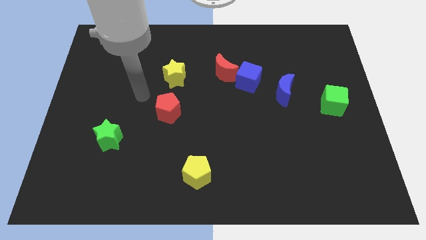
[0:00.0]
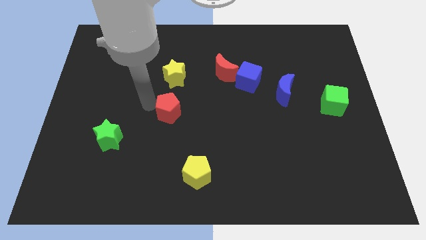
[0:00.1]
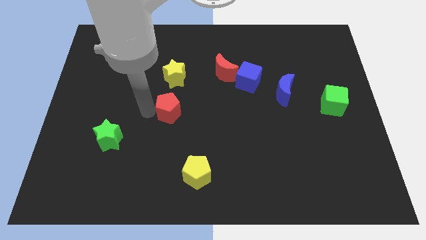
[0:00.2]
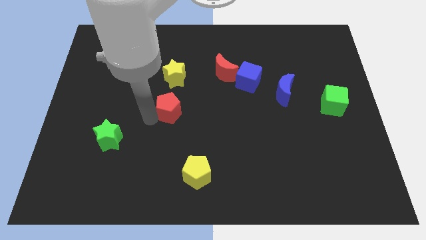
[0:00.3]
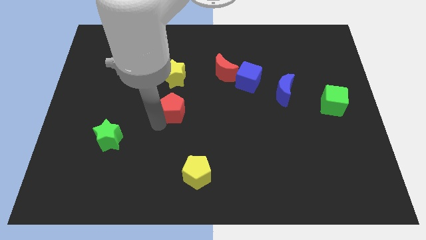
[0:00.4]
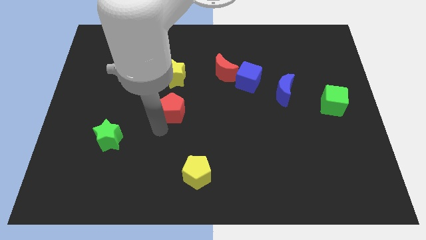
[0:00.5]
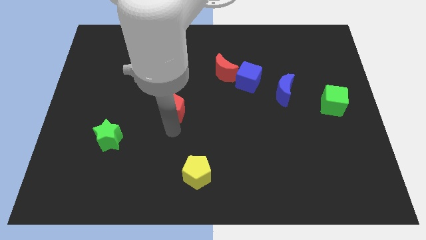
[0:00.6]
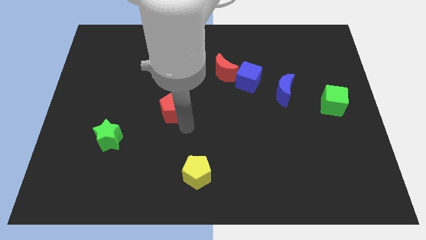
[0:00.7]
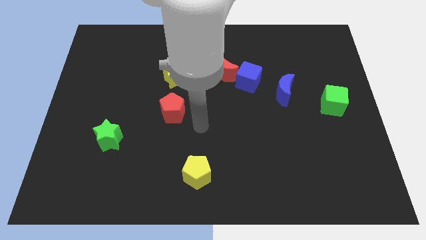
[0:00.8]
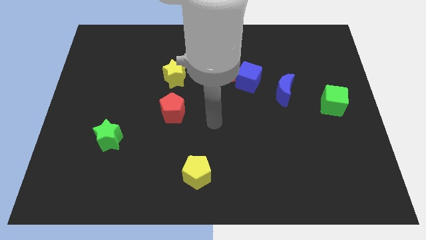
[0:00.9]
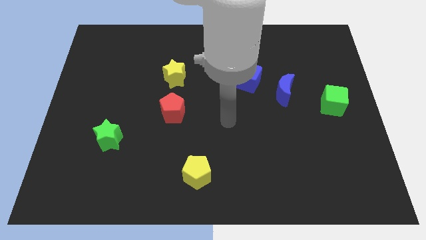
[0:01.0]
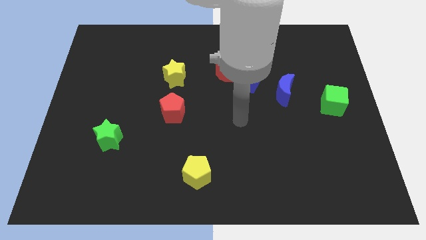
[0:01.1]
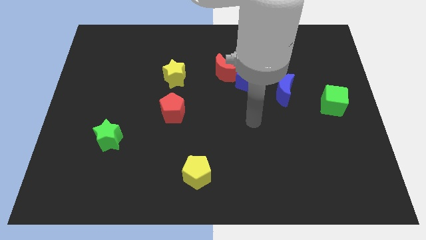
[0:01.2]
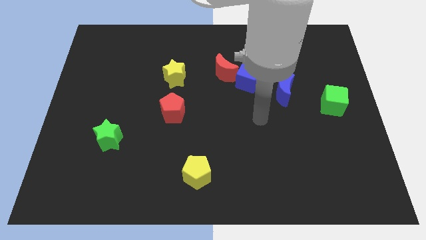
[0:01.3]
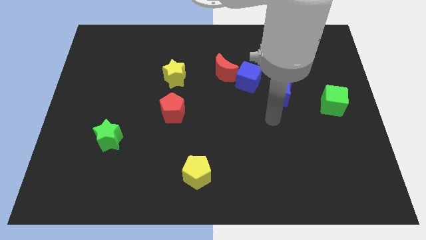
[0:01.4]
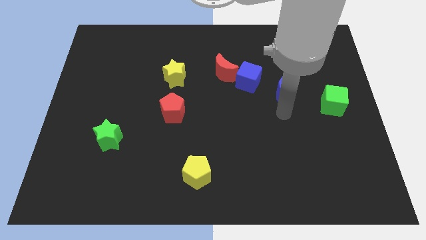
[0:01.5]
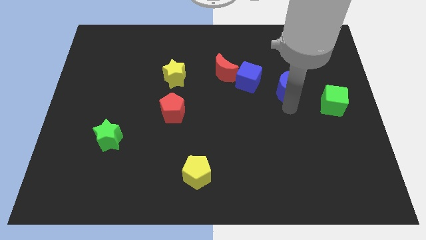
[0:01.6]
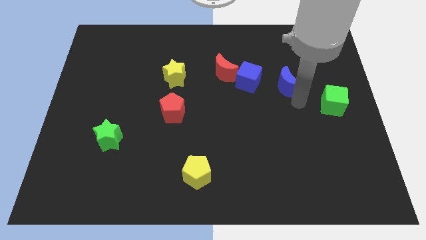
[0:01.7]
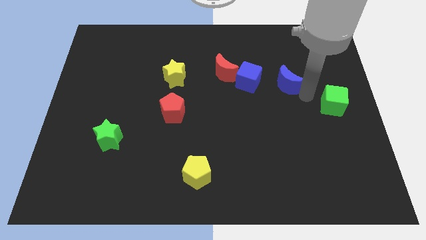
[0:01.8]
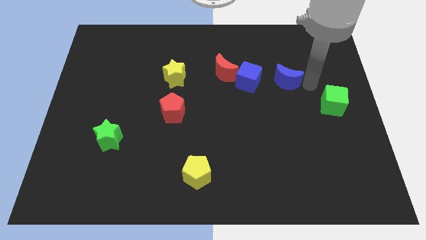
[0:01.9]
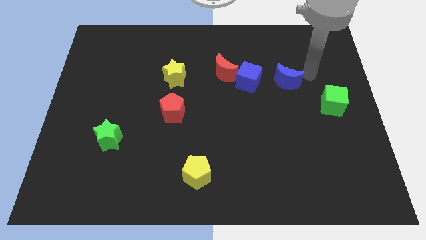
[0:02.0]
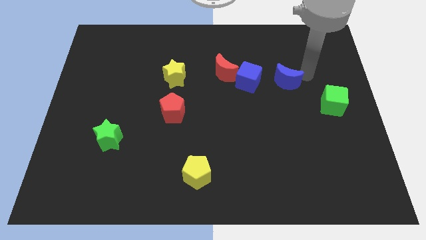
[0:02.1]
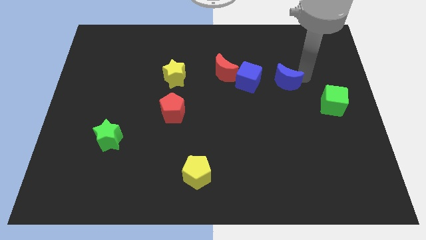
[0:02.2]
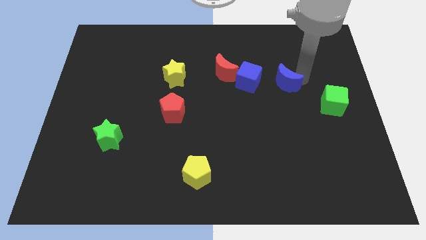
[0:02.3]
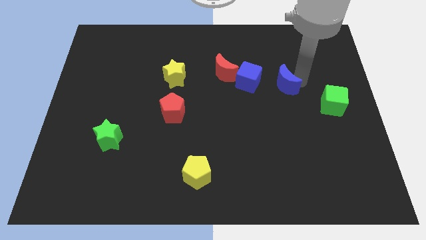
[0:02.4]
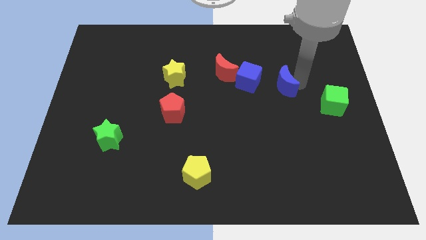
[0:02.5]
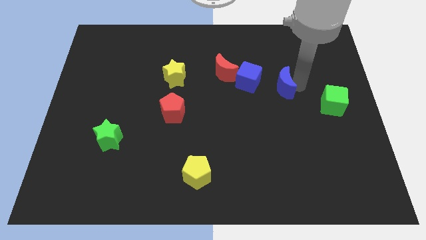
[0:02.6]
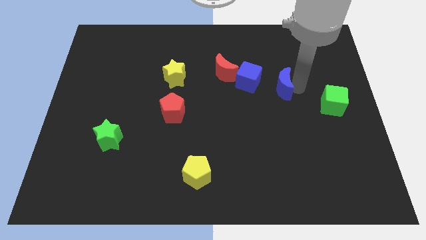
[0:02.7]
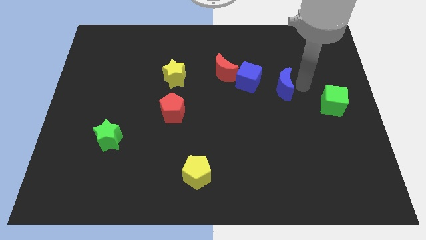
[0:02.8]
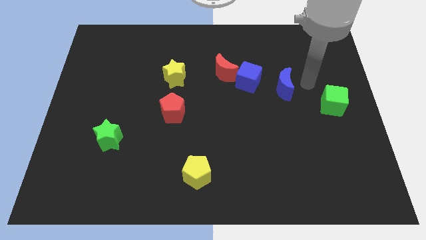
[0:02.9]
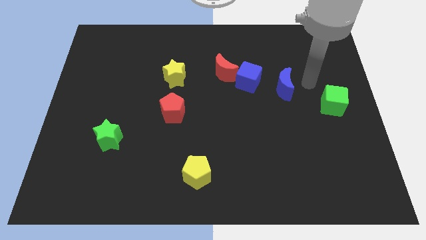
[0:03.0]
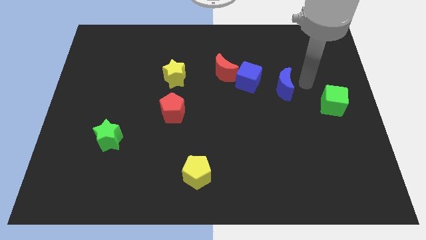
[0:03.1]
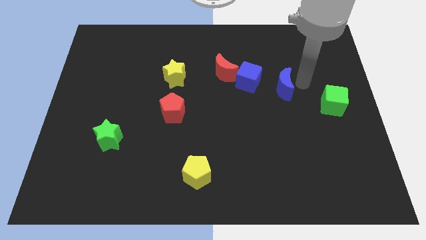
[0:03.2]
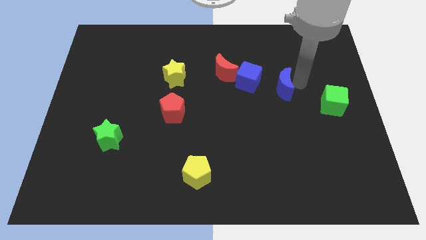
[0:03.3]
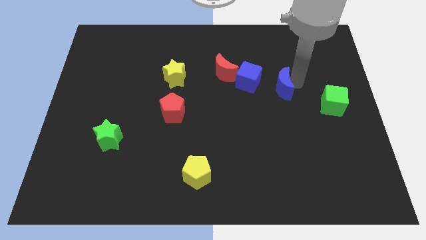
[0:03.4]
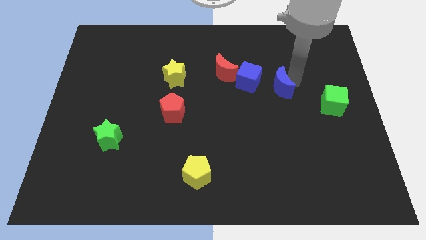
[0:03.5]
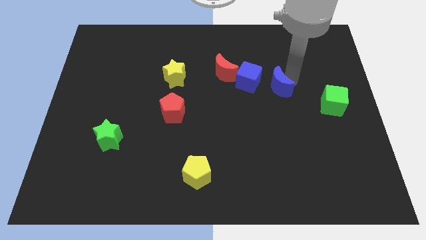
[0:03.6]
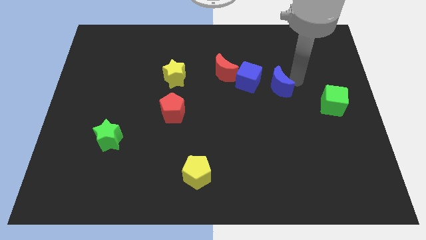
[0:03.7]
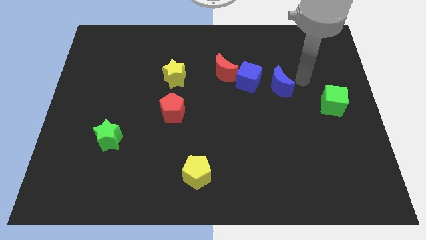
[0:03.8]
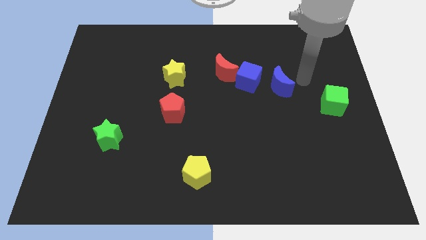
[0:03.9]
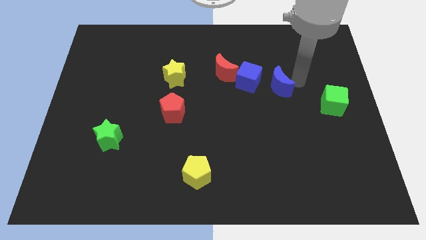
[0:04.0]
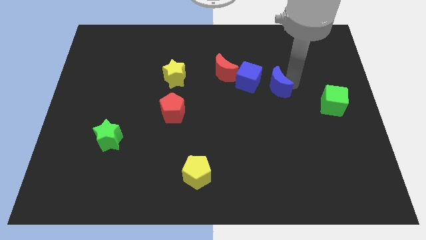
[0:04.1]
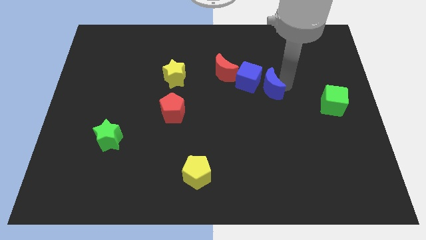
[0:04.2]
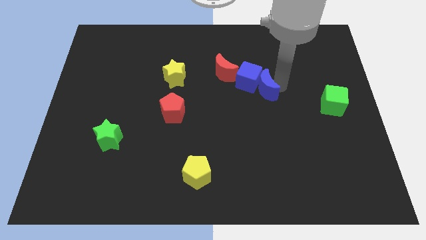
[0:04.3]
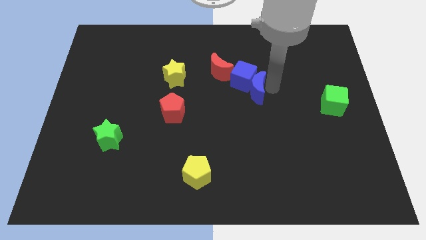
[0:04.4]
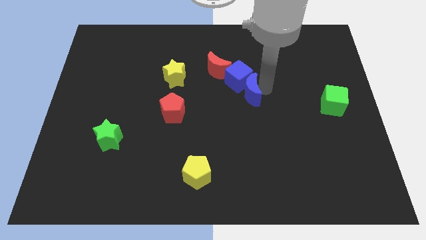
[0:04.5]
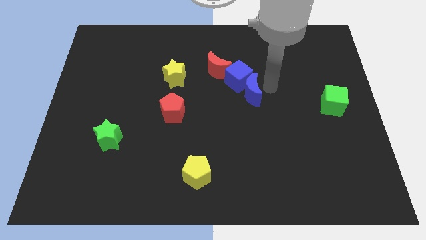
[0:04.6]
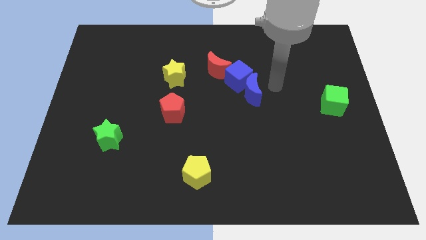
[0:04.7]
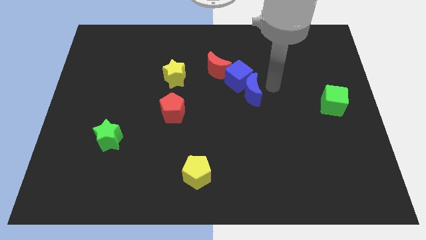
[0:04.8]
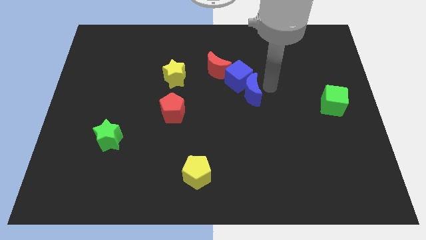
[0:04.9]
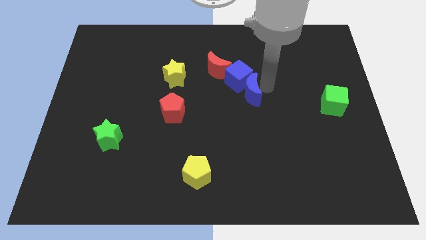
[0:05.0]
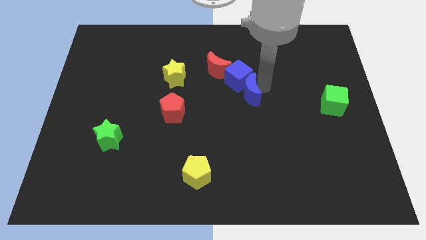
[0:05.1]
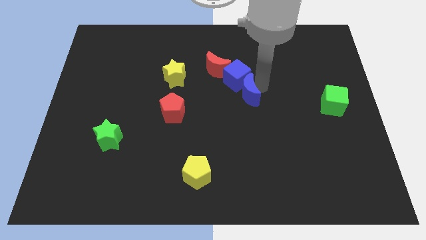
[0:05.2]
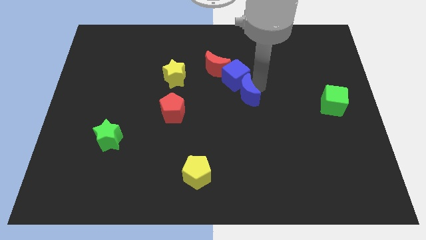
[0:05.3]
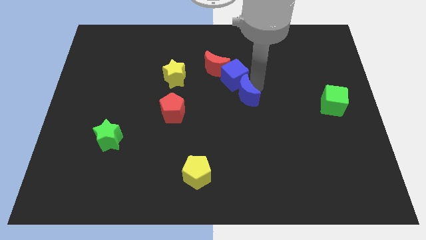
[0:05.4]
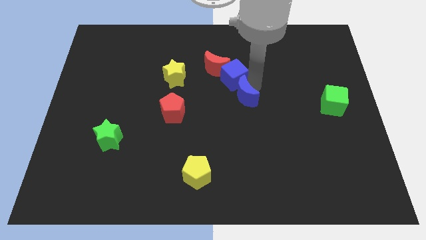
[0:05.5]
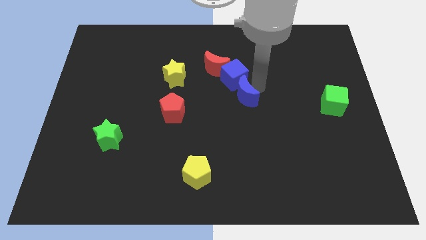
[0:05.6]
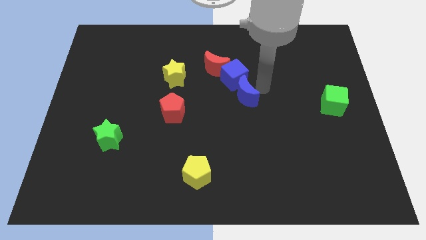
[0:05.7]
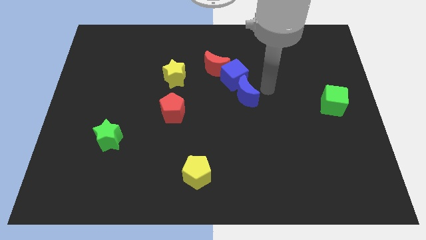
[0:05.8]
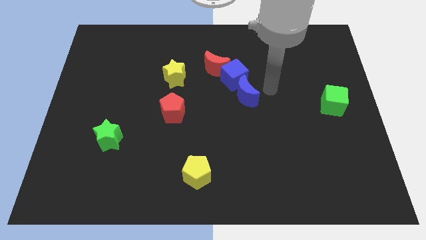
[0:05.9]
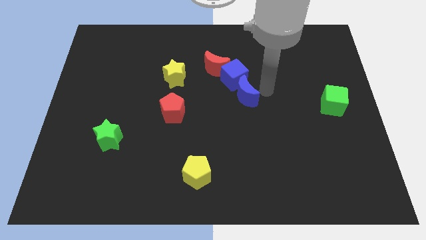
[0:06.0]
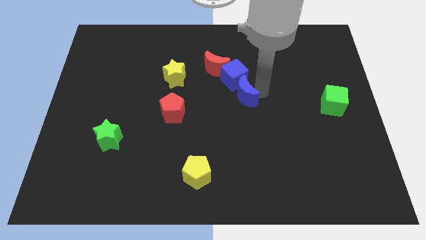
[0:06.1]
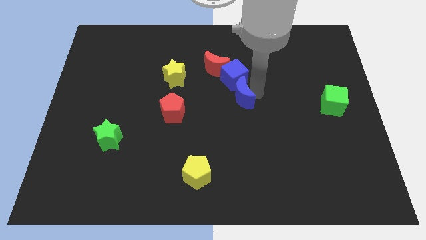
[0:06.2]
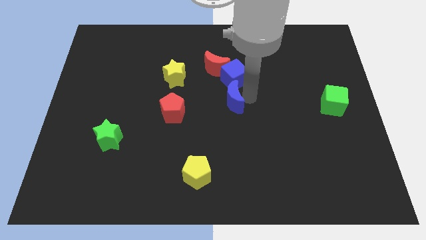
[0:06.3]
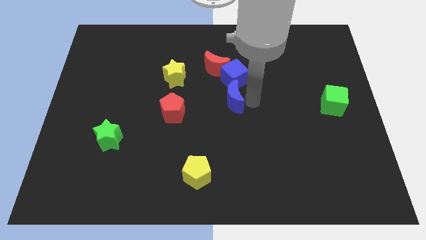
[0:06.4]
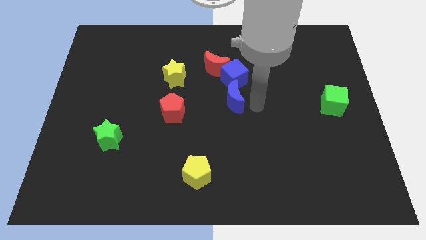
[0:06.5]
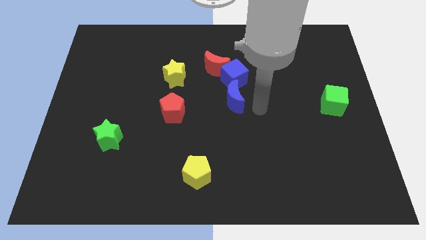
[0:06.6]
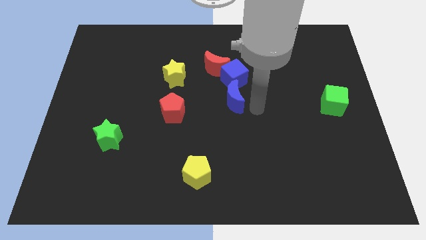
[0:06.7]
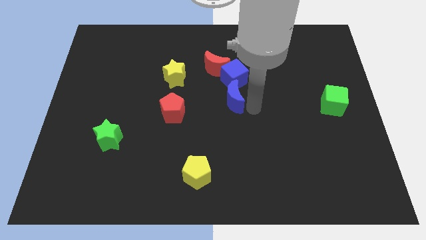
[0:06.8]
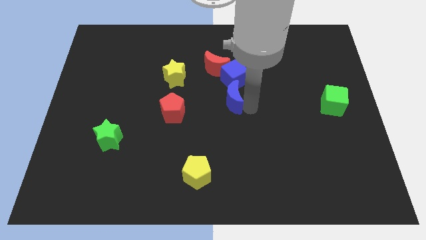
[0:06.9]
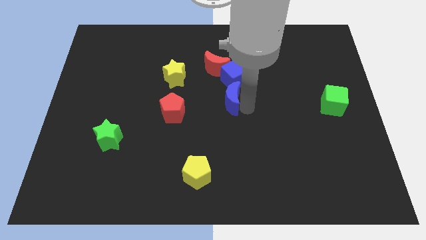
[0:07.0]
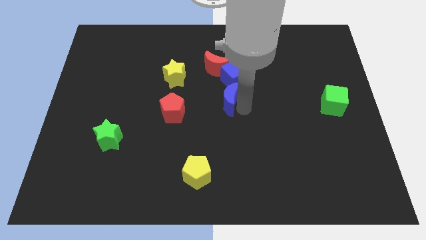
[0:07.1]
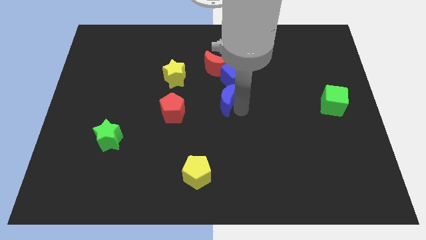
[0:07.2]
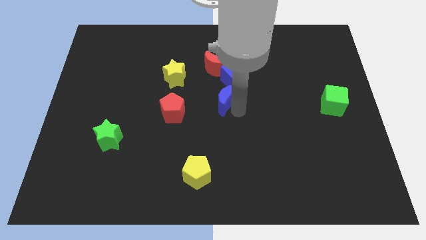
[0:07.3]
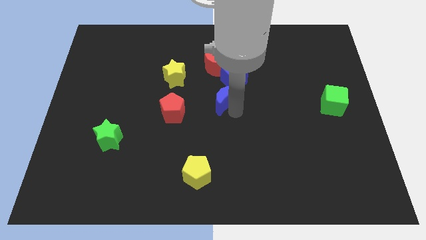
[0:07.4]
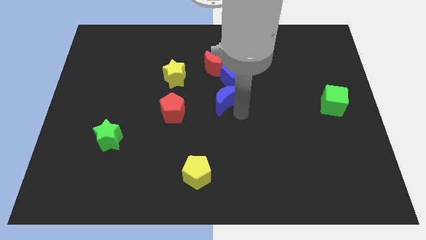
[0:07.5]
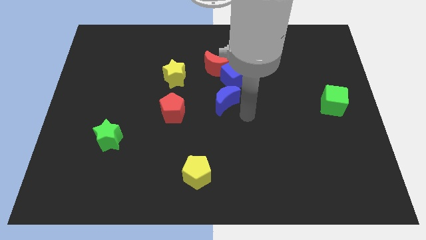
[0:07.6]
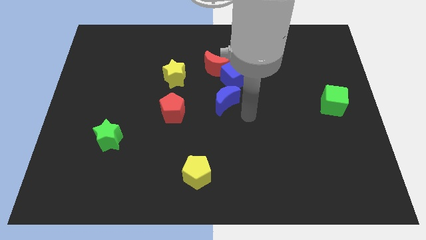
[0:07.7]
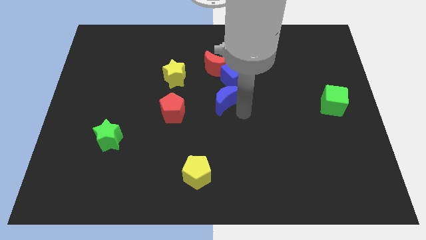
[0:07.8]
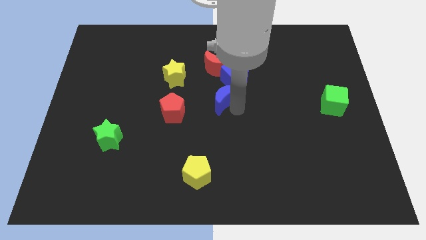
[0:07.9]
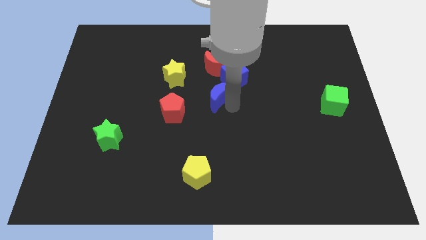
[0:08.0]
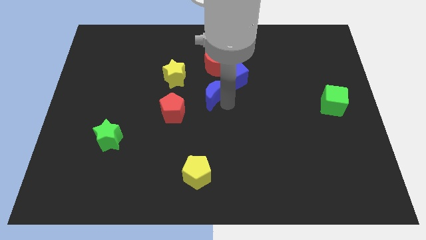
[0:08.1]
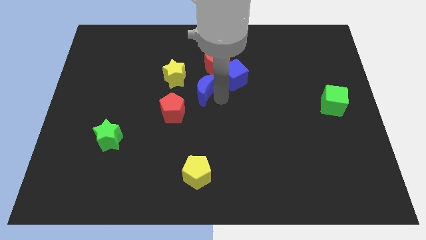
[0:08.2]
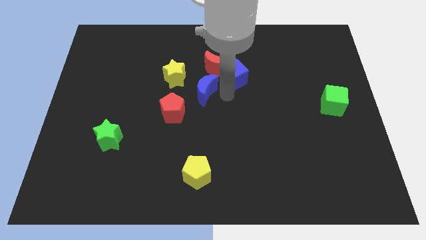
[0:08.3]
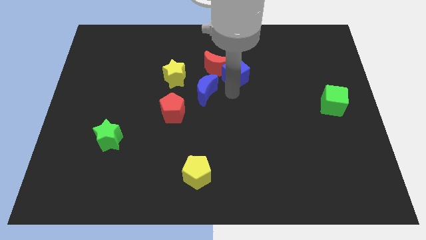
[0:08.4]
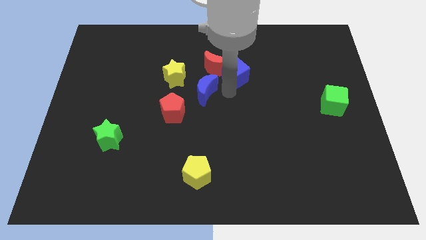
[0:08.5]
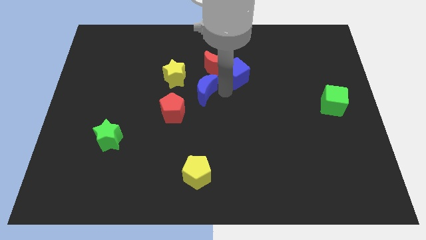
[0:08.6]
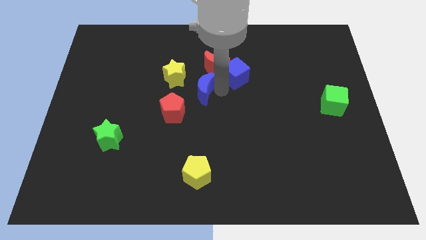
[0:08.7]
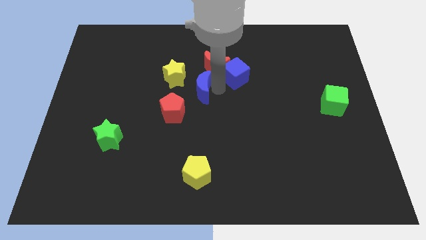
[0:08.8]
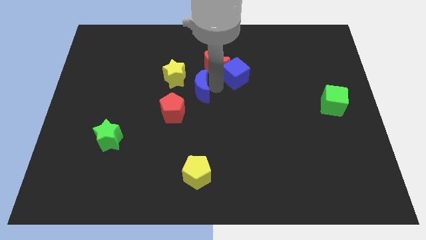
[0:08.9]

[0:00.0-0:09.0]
move the blue moon to the left
